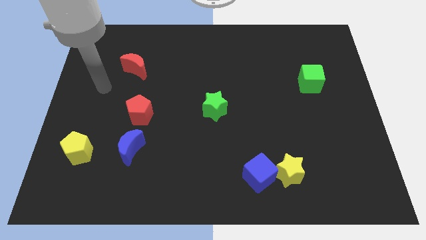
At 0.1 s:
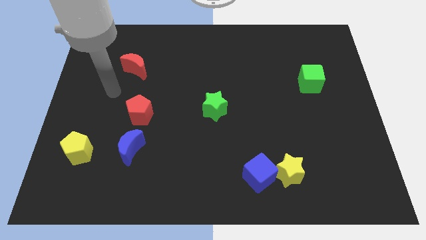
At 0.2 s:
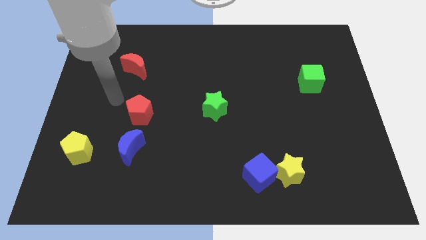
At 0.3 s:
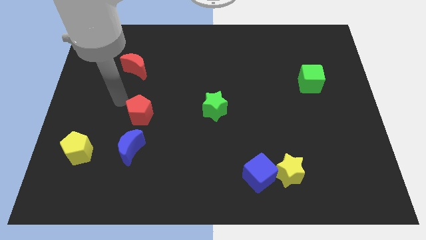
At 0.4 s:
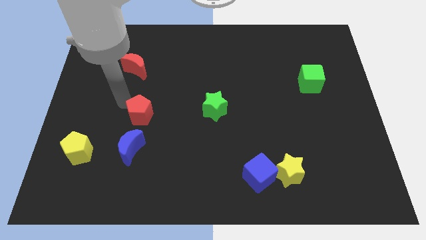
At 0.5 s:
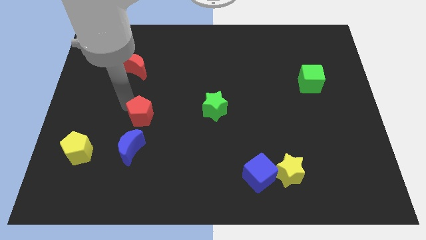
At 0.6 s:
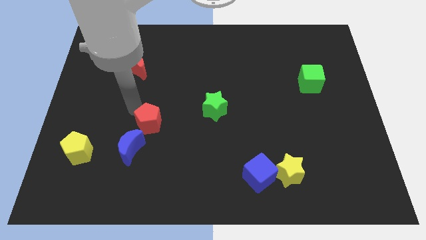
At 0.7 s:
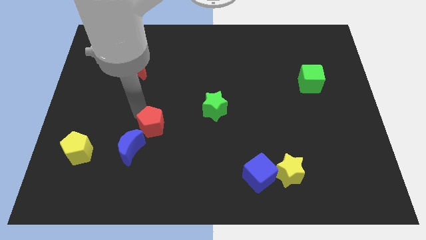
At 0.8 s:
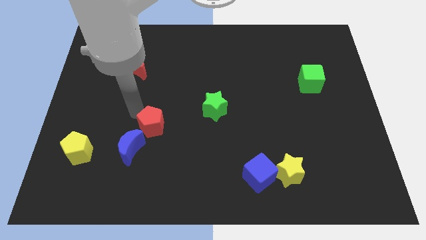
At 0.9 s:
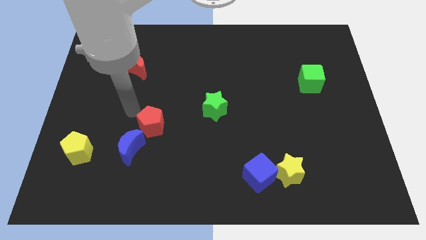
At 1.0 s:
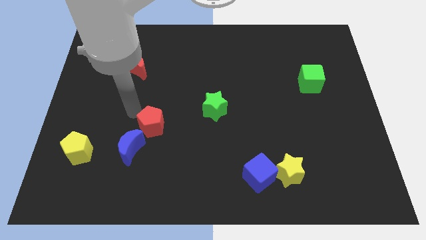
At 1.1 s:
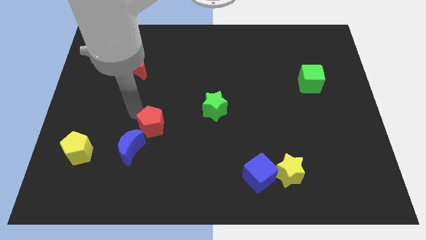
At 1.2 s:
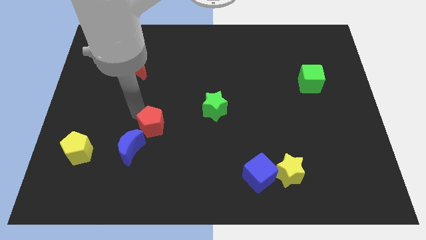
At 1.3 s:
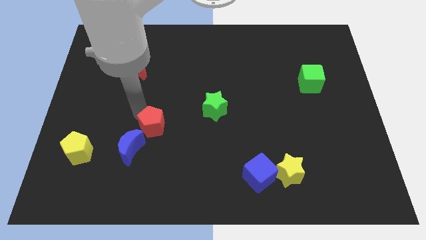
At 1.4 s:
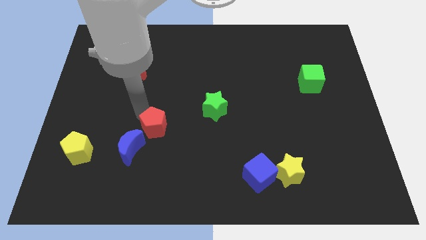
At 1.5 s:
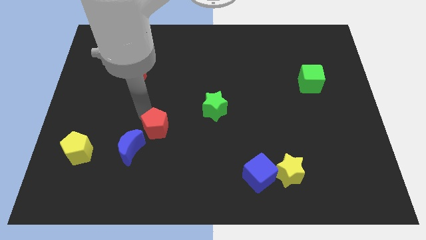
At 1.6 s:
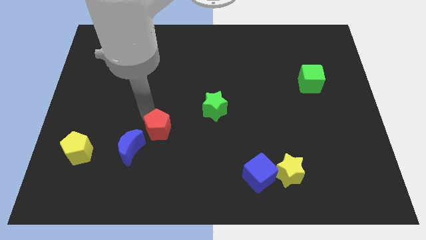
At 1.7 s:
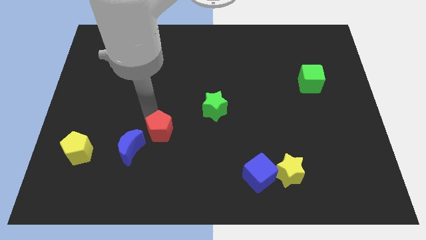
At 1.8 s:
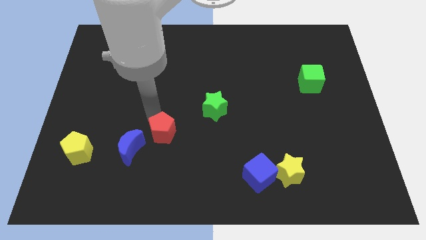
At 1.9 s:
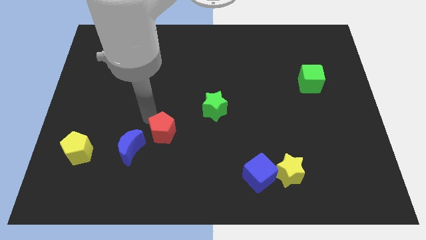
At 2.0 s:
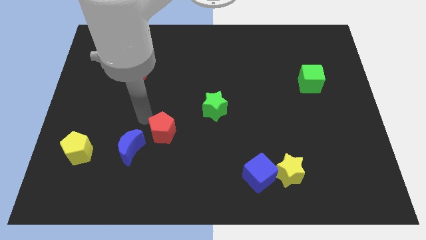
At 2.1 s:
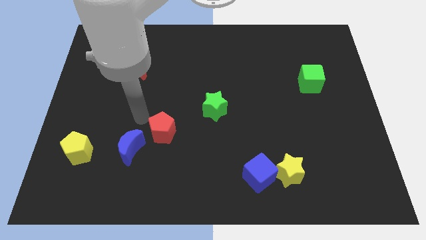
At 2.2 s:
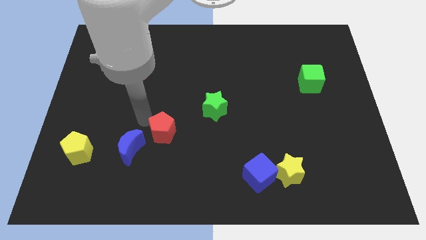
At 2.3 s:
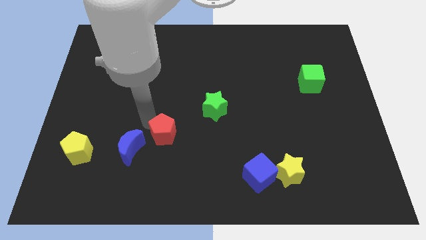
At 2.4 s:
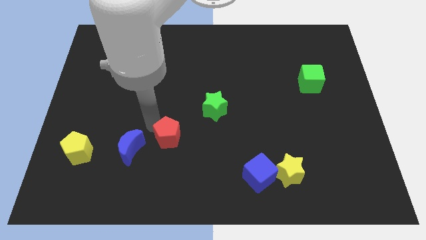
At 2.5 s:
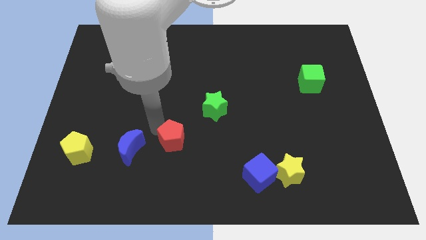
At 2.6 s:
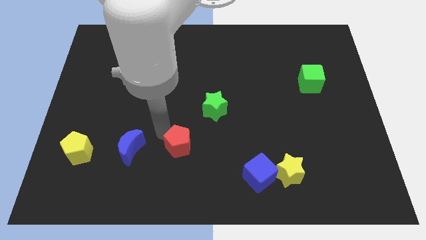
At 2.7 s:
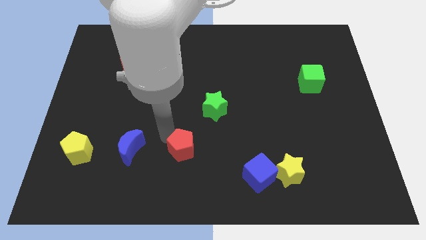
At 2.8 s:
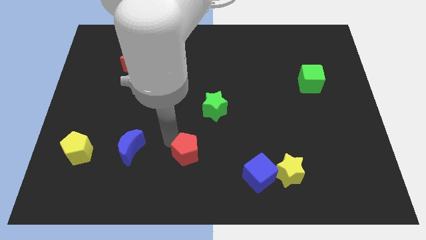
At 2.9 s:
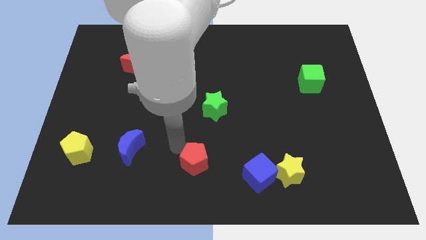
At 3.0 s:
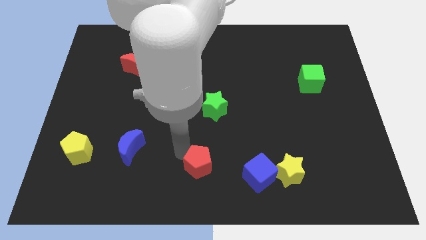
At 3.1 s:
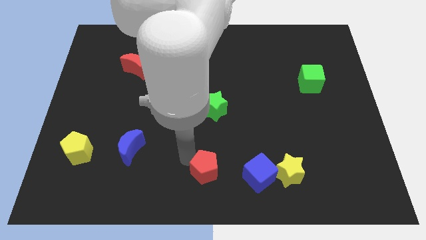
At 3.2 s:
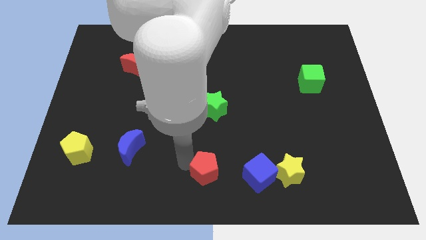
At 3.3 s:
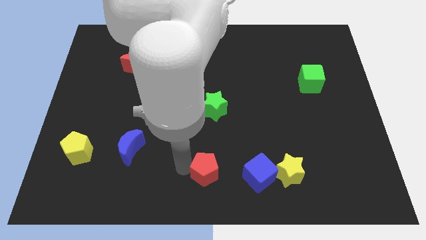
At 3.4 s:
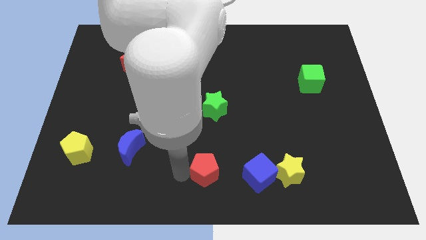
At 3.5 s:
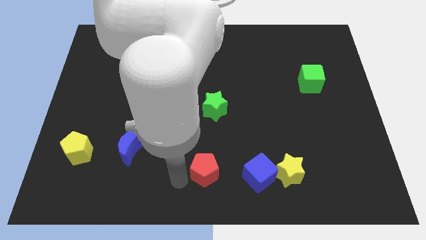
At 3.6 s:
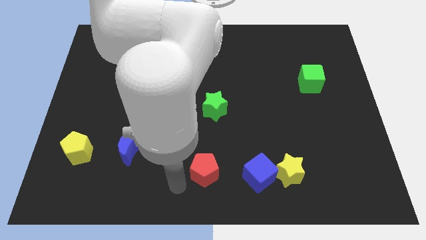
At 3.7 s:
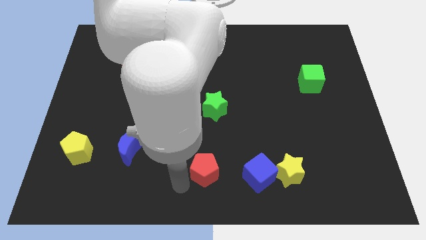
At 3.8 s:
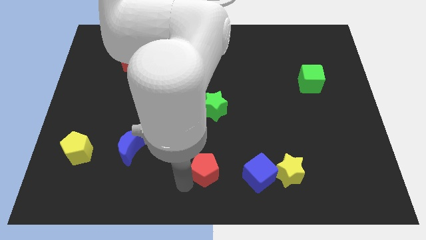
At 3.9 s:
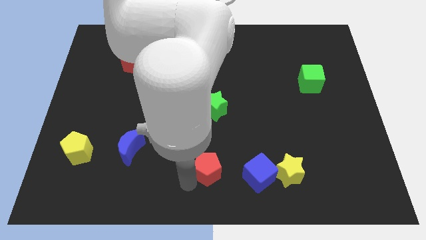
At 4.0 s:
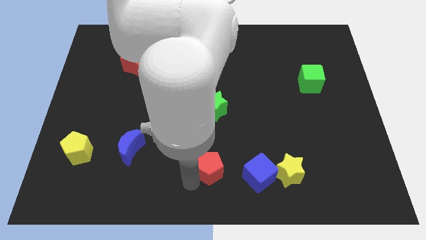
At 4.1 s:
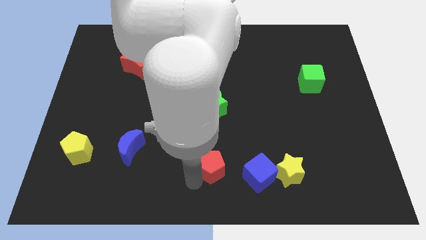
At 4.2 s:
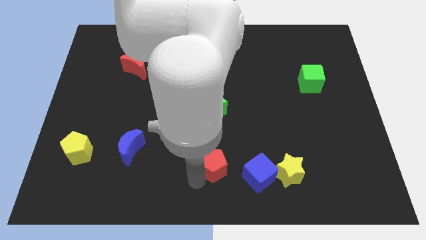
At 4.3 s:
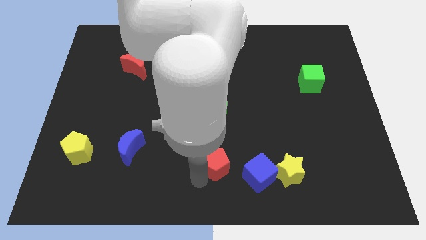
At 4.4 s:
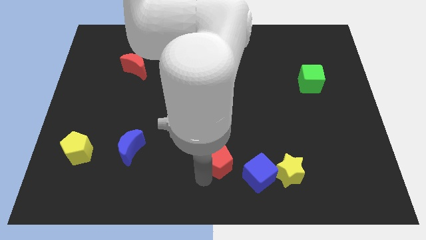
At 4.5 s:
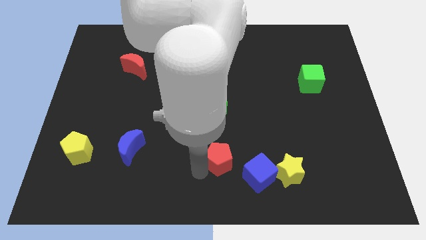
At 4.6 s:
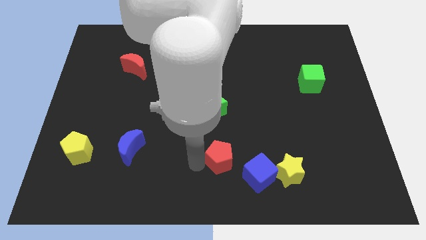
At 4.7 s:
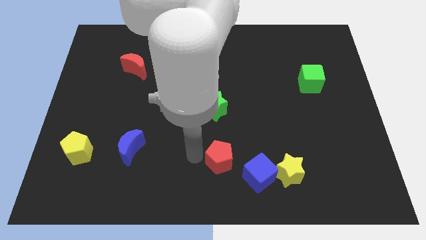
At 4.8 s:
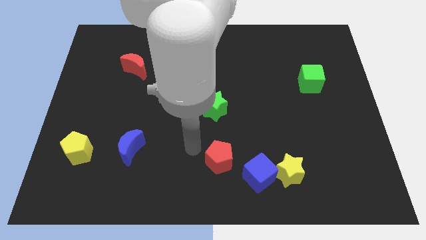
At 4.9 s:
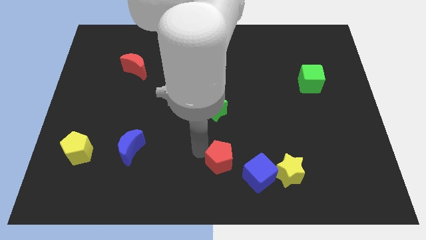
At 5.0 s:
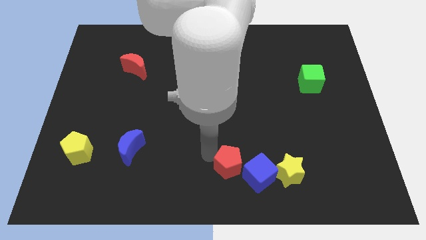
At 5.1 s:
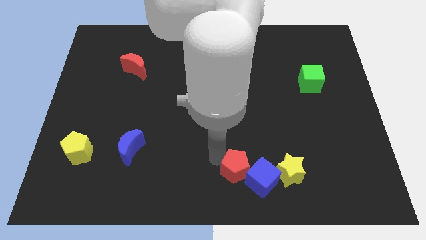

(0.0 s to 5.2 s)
push the red pentagon towards the blue cube

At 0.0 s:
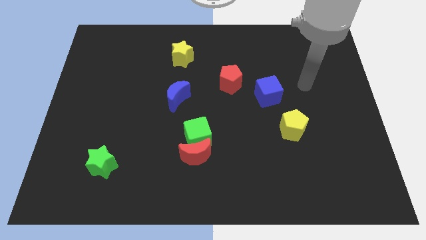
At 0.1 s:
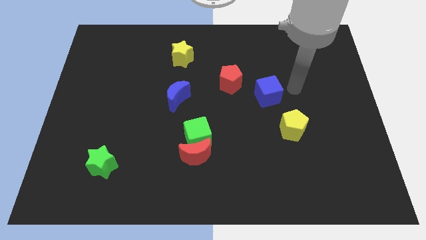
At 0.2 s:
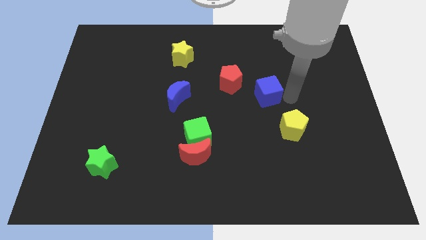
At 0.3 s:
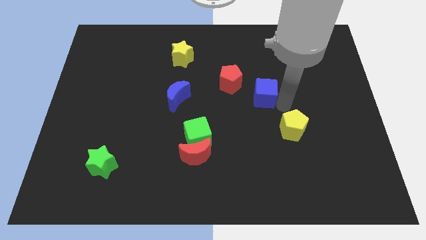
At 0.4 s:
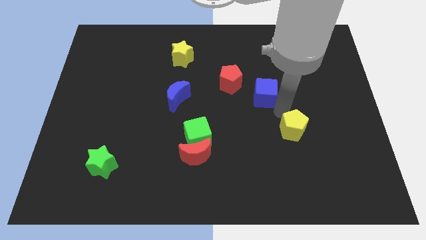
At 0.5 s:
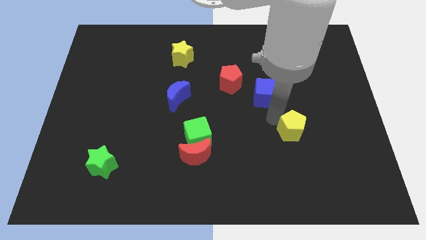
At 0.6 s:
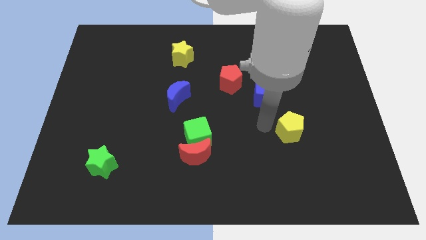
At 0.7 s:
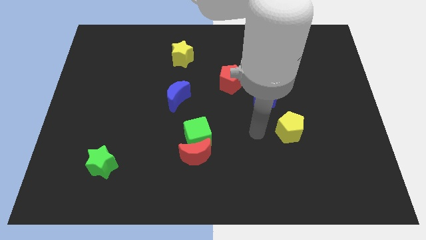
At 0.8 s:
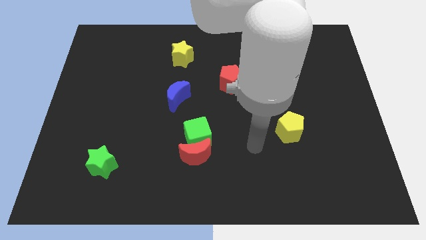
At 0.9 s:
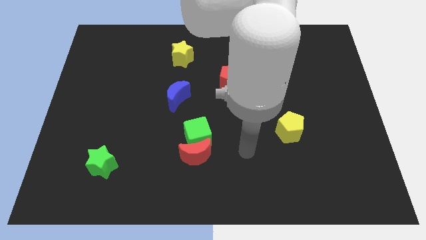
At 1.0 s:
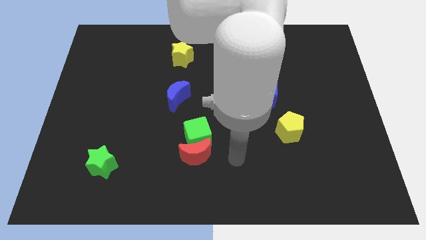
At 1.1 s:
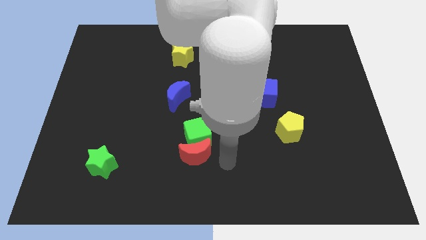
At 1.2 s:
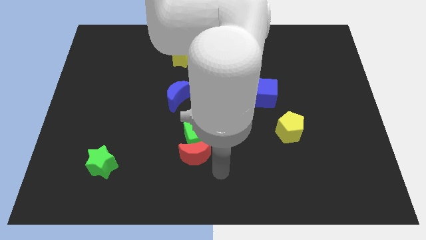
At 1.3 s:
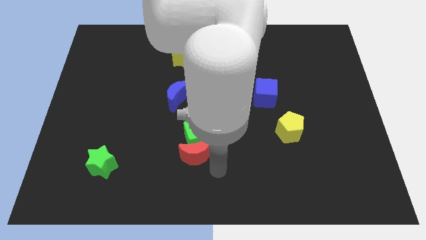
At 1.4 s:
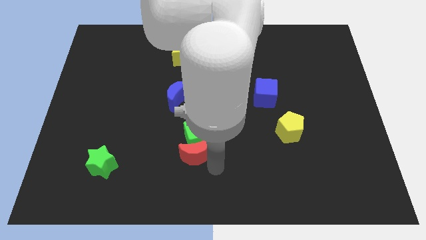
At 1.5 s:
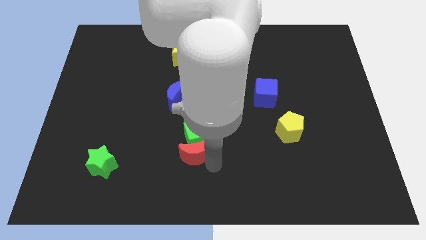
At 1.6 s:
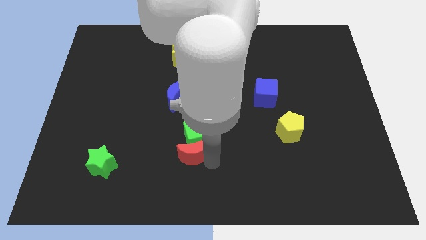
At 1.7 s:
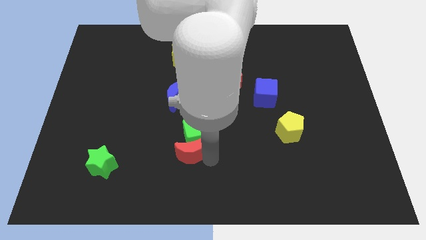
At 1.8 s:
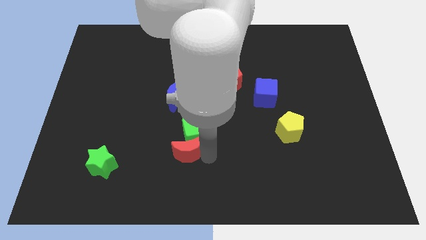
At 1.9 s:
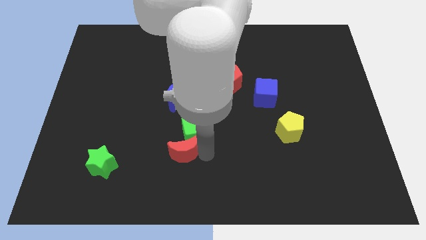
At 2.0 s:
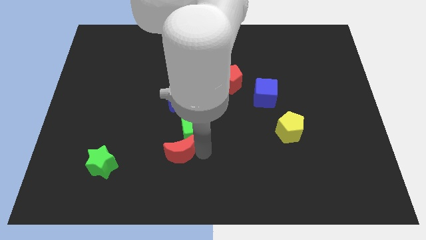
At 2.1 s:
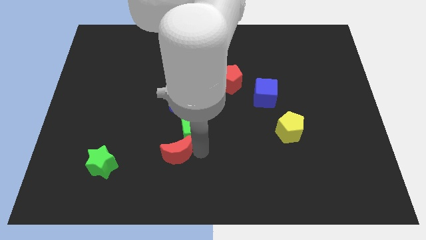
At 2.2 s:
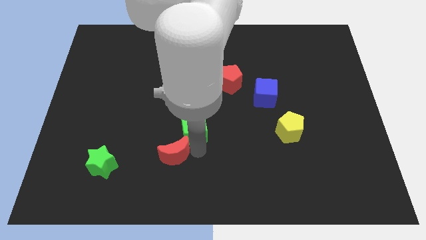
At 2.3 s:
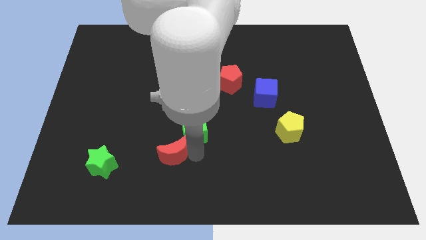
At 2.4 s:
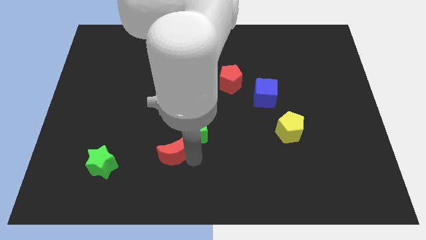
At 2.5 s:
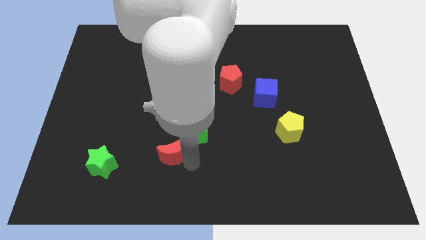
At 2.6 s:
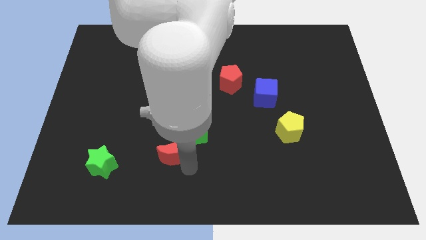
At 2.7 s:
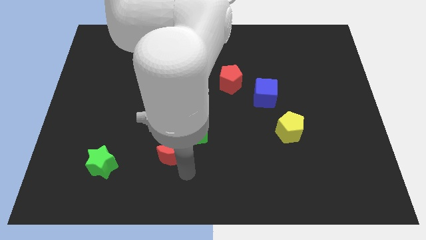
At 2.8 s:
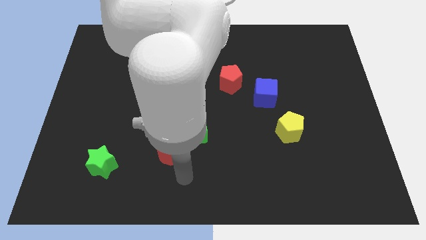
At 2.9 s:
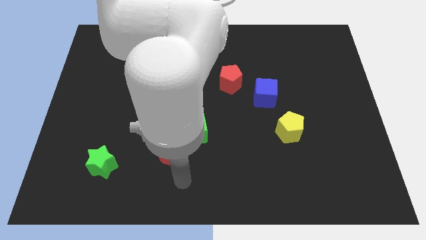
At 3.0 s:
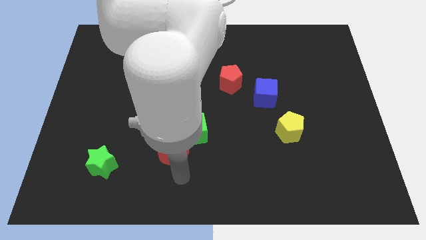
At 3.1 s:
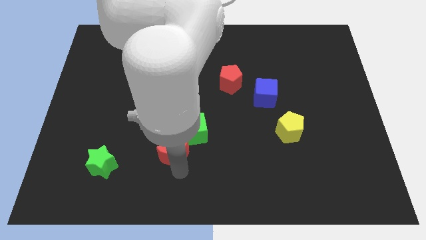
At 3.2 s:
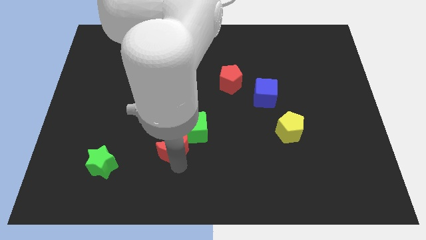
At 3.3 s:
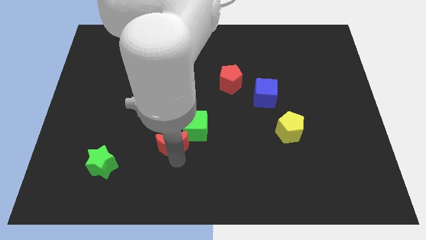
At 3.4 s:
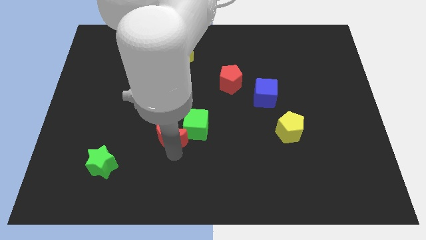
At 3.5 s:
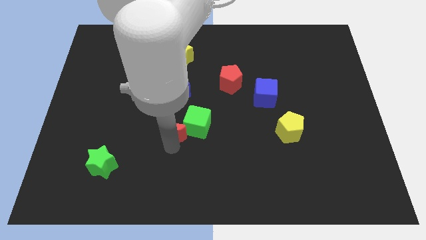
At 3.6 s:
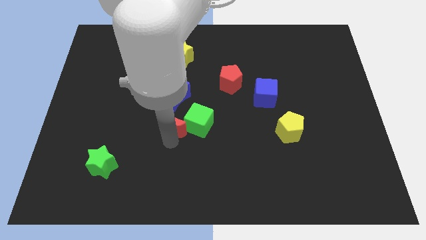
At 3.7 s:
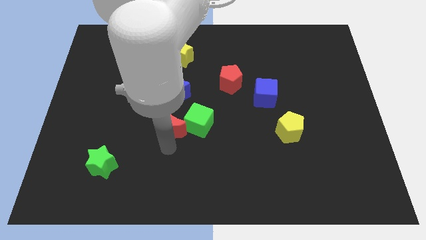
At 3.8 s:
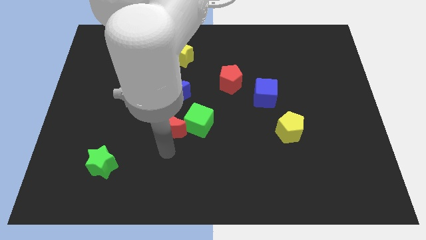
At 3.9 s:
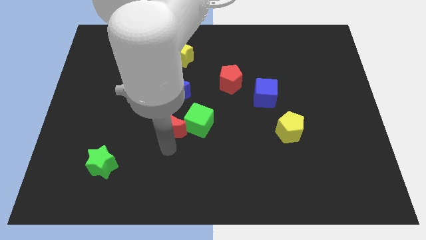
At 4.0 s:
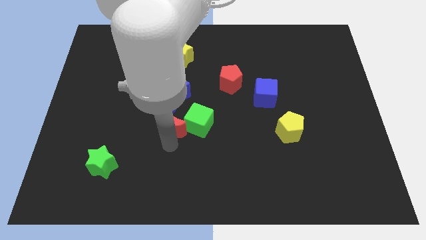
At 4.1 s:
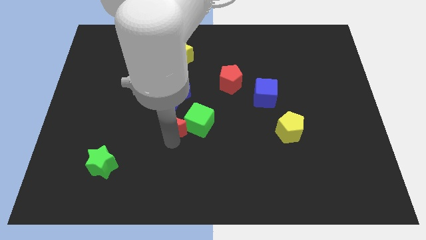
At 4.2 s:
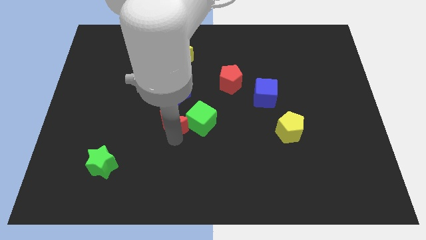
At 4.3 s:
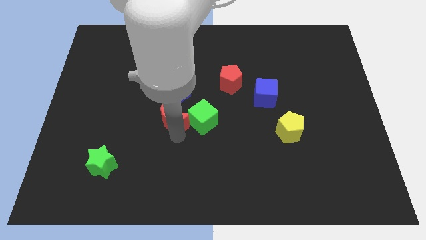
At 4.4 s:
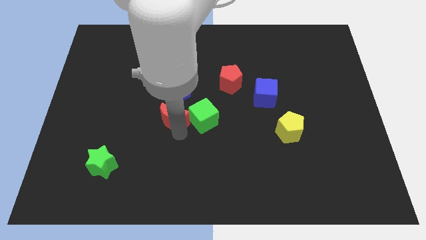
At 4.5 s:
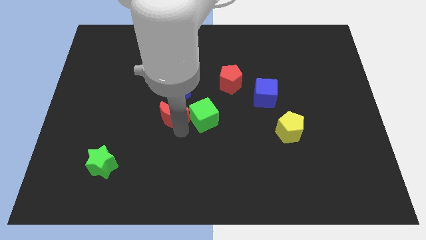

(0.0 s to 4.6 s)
put the red moon next to the blue moon
